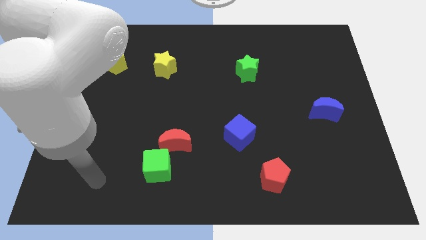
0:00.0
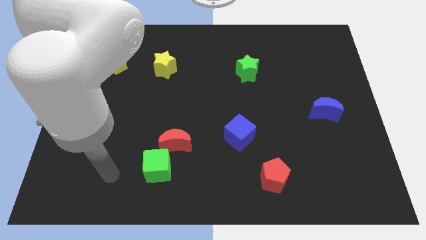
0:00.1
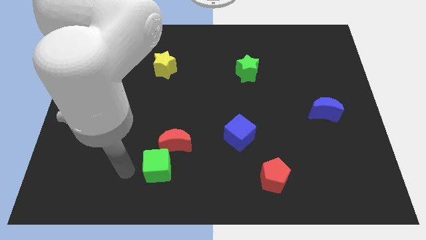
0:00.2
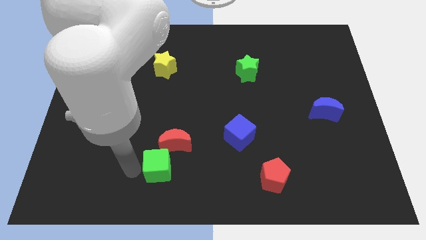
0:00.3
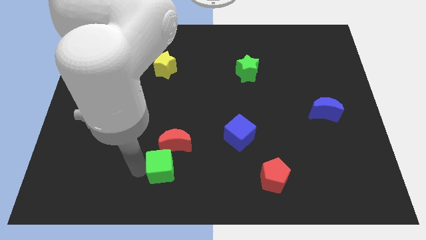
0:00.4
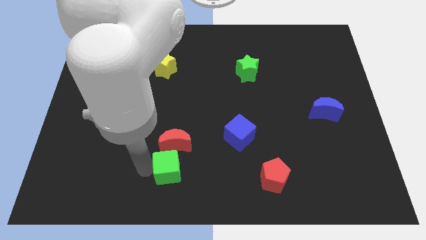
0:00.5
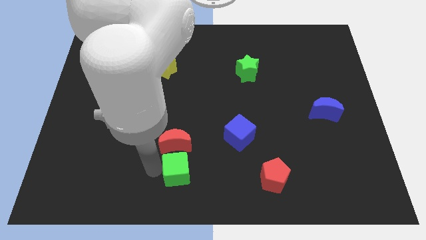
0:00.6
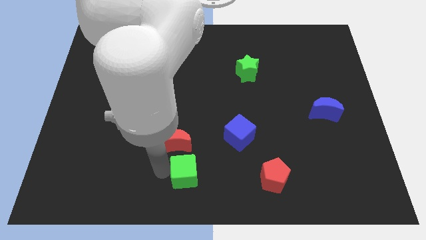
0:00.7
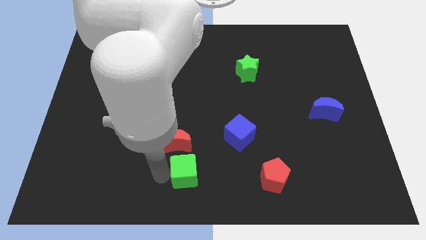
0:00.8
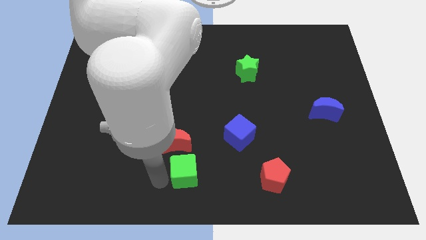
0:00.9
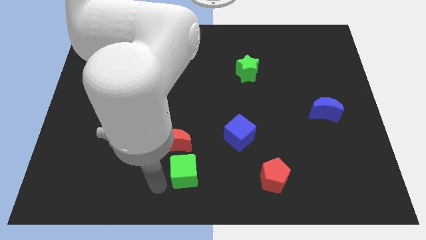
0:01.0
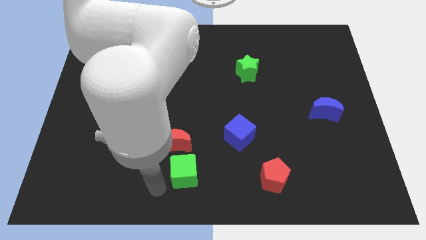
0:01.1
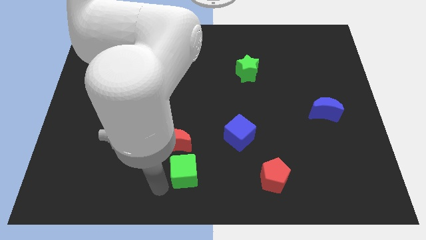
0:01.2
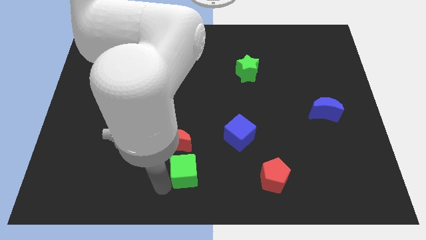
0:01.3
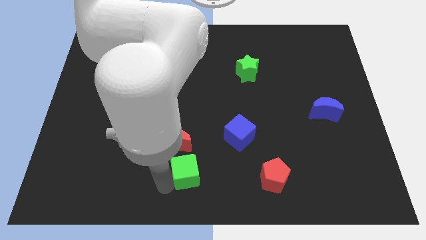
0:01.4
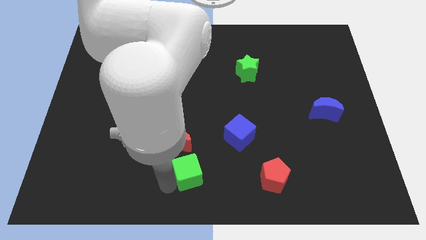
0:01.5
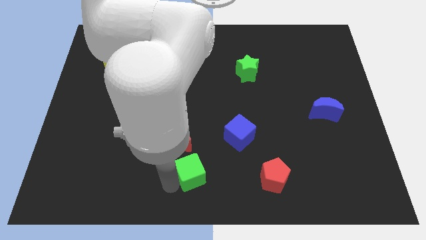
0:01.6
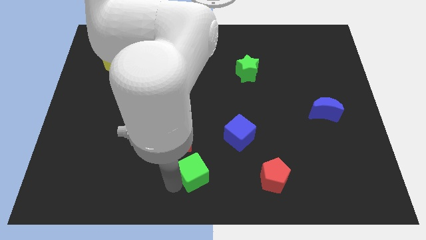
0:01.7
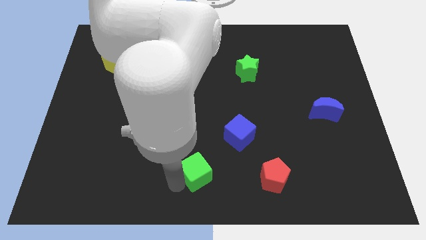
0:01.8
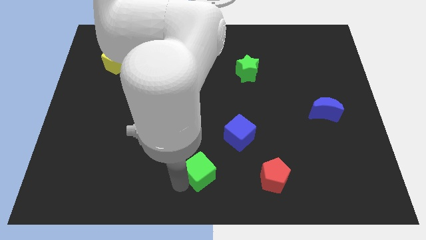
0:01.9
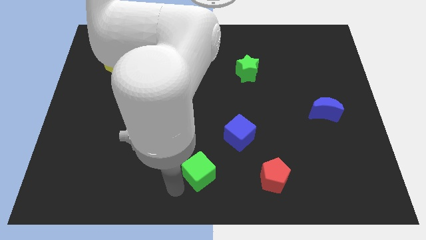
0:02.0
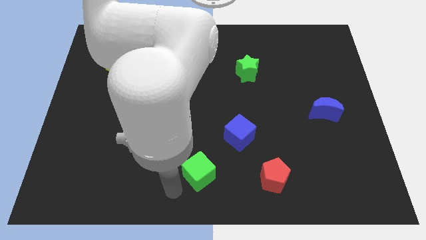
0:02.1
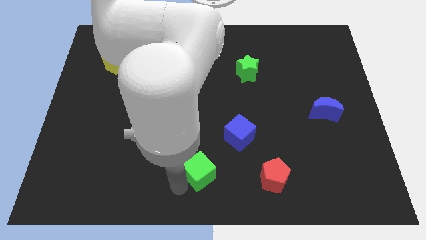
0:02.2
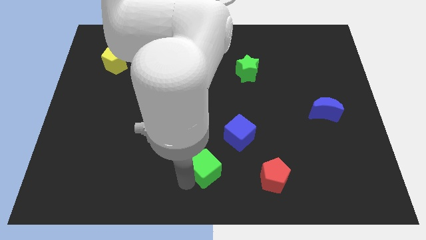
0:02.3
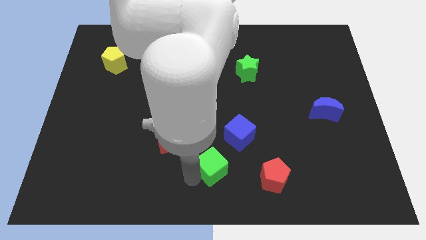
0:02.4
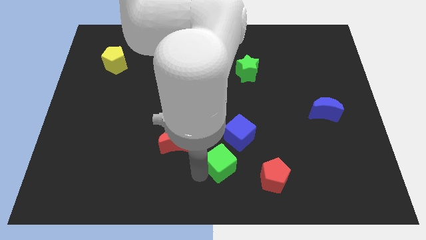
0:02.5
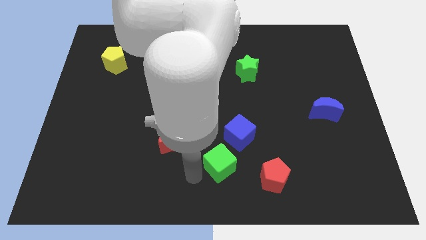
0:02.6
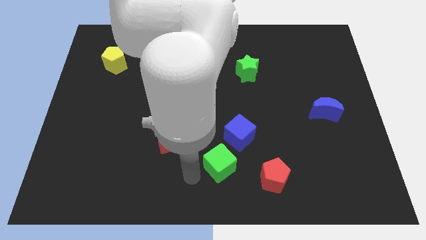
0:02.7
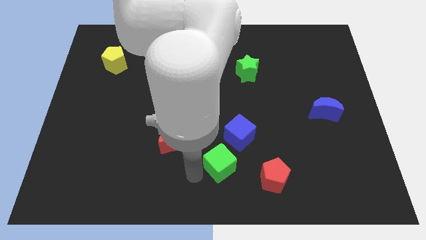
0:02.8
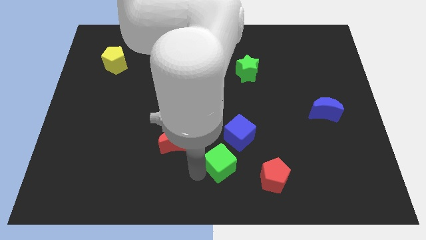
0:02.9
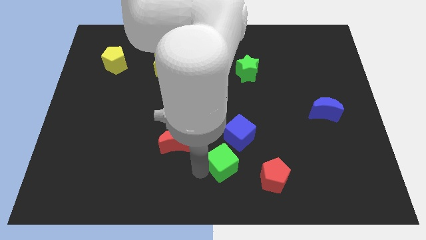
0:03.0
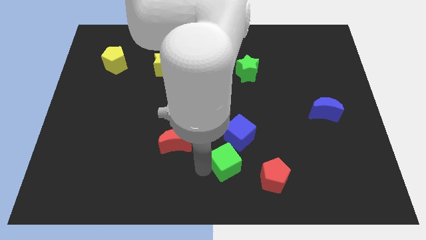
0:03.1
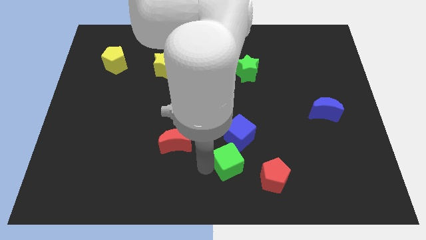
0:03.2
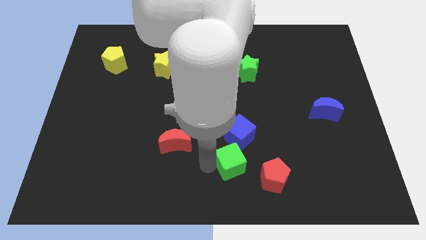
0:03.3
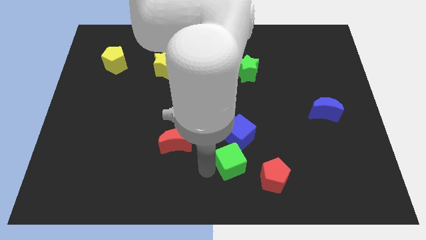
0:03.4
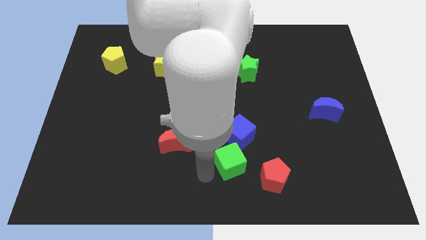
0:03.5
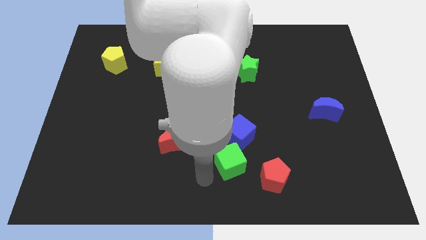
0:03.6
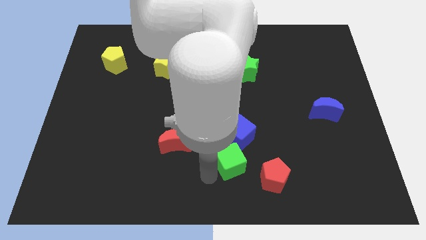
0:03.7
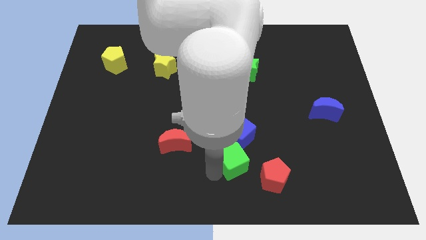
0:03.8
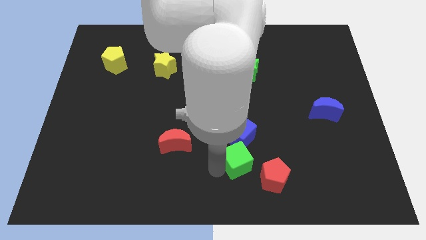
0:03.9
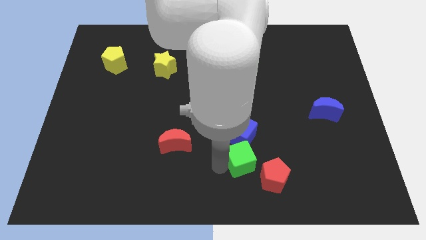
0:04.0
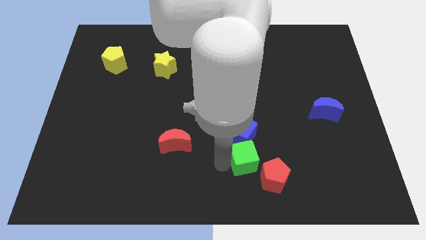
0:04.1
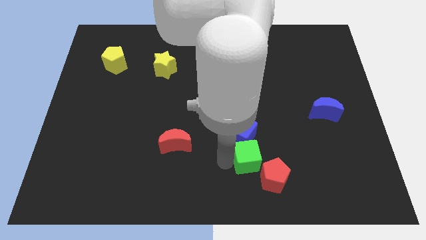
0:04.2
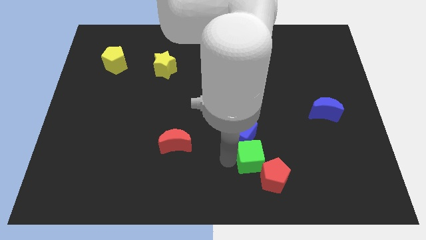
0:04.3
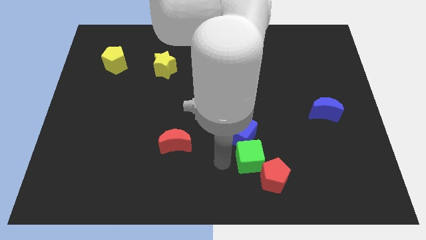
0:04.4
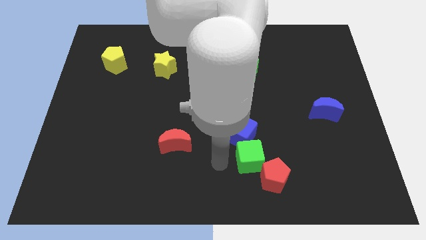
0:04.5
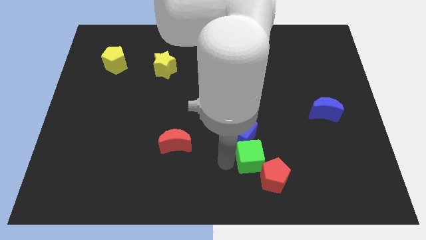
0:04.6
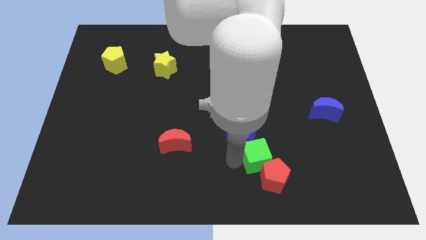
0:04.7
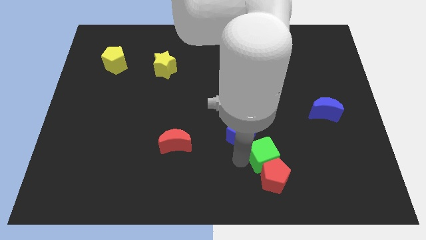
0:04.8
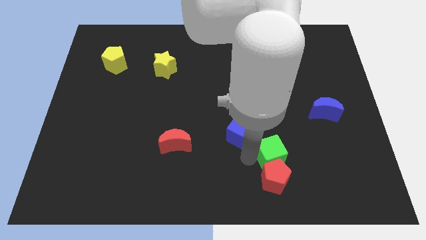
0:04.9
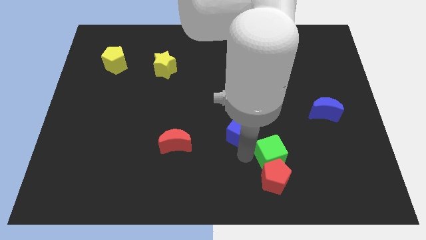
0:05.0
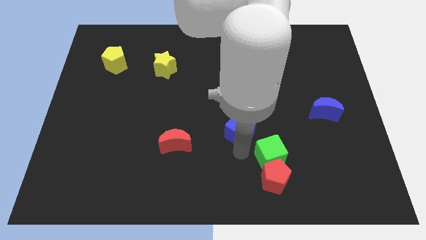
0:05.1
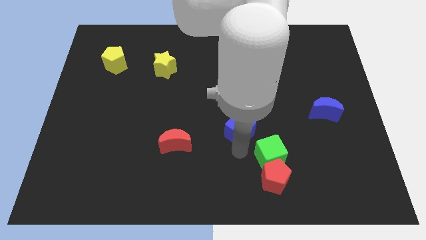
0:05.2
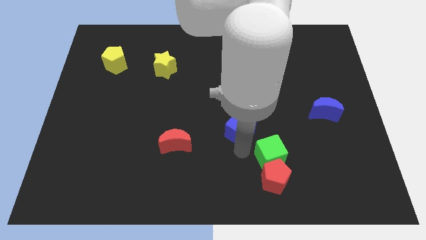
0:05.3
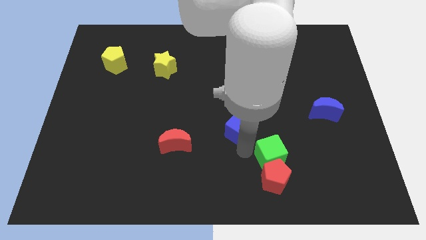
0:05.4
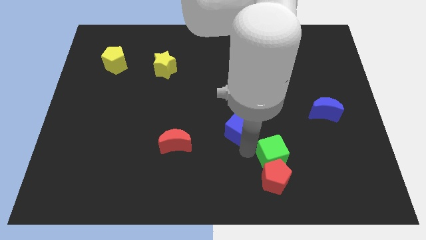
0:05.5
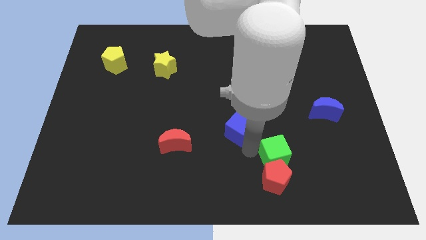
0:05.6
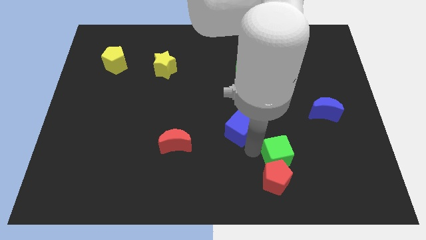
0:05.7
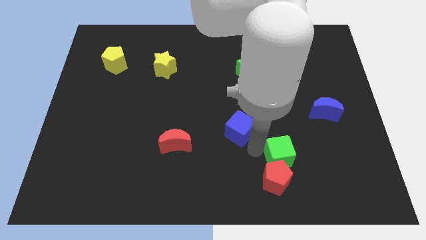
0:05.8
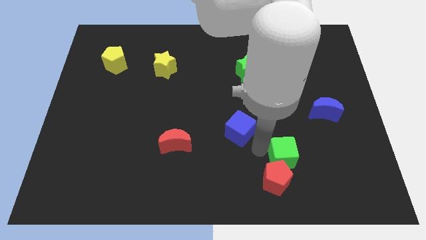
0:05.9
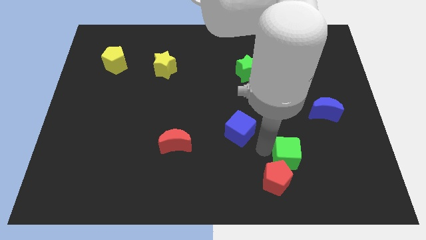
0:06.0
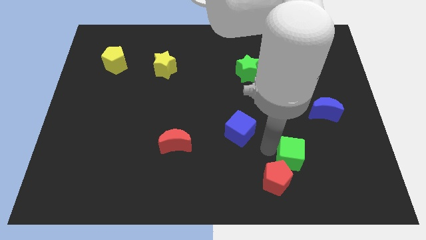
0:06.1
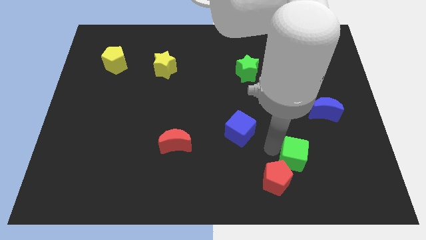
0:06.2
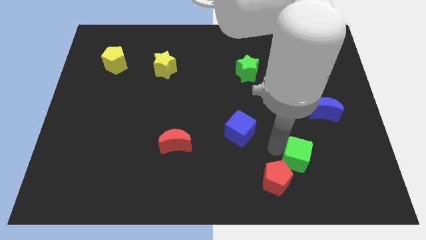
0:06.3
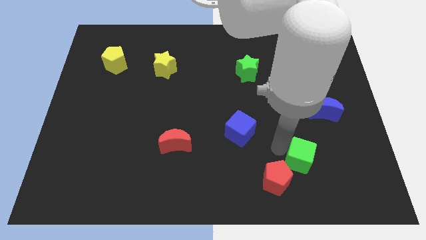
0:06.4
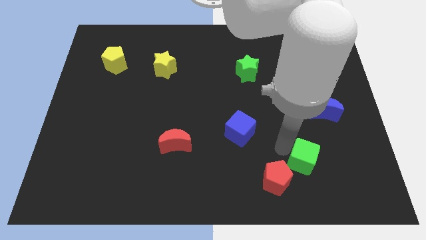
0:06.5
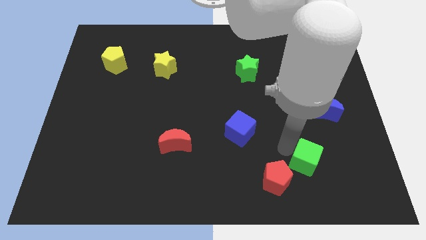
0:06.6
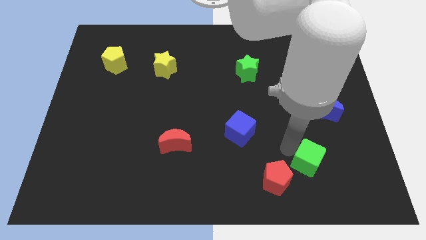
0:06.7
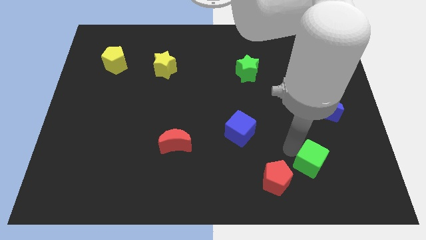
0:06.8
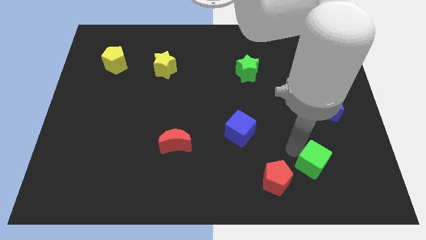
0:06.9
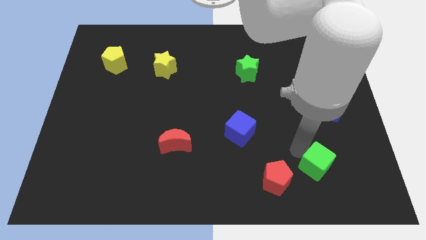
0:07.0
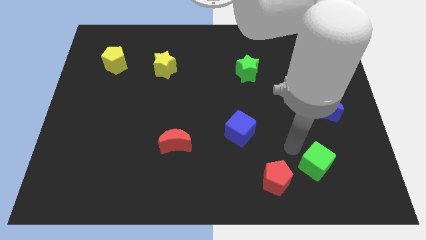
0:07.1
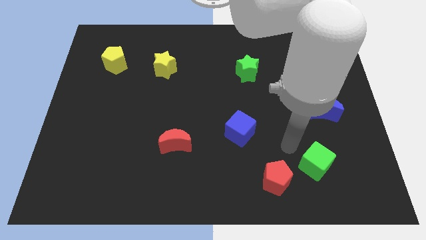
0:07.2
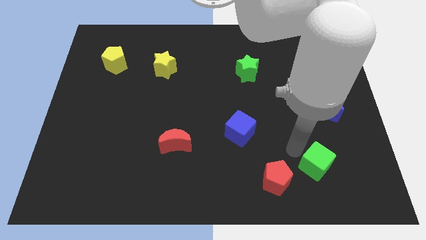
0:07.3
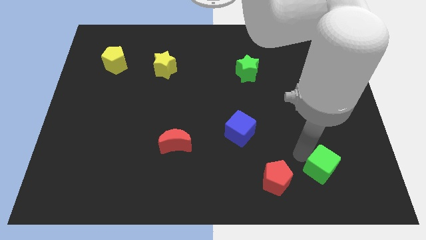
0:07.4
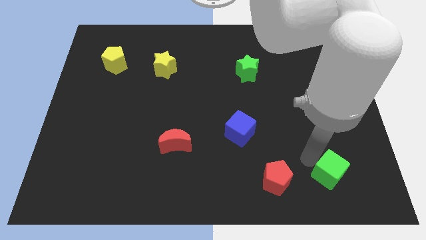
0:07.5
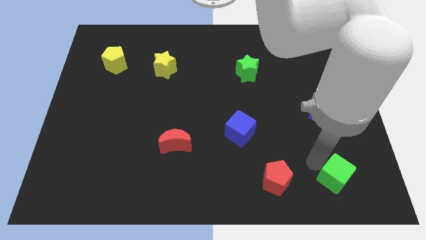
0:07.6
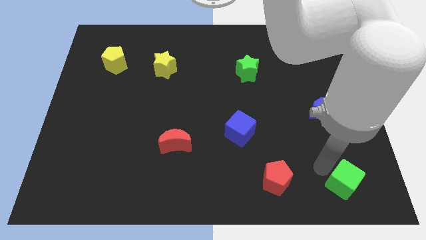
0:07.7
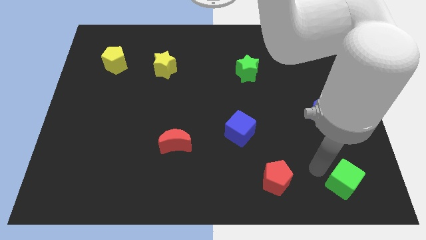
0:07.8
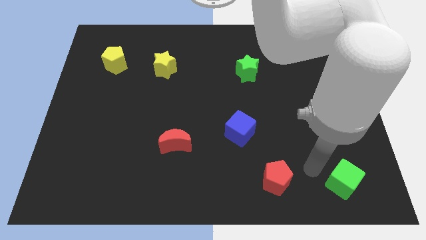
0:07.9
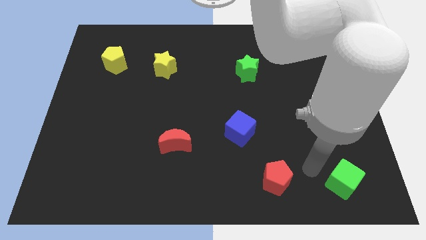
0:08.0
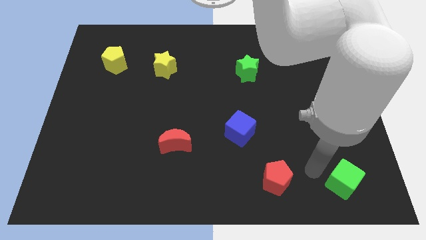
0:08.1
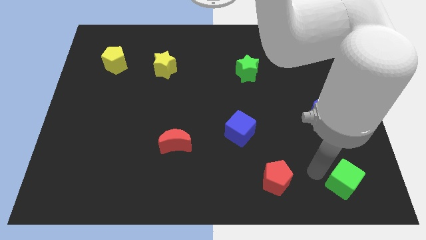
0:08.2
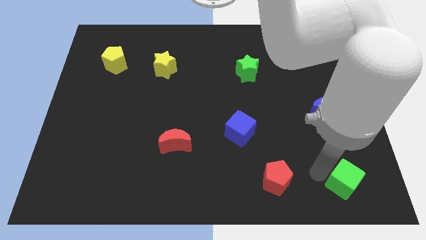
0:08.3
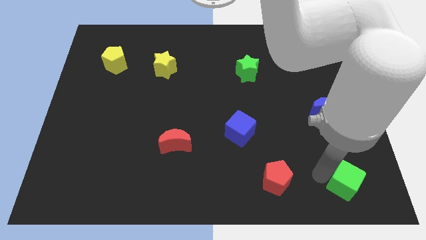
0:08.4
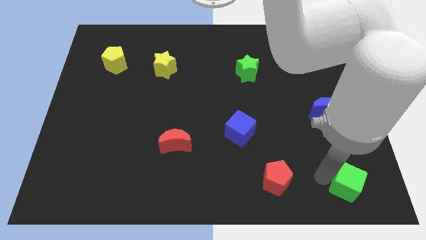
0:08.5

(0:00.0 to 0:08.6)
slide the green cube to the bottom right of the board
